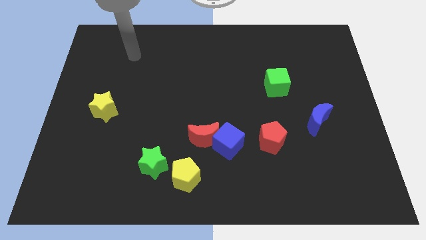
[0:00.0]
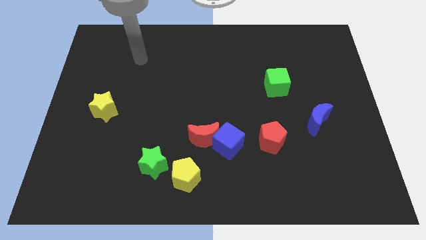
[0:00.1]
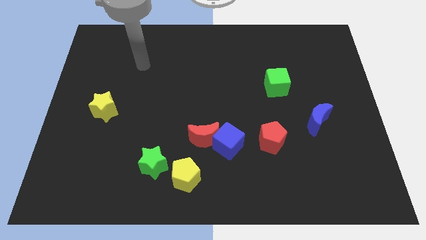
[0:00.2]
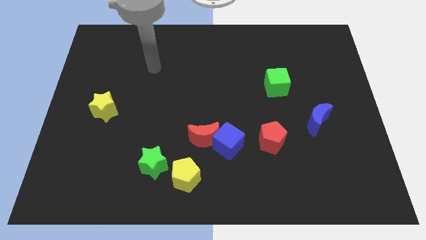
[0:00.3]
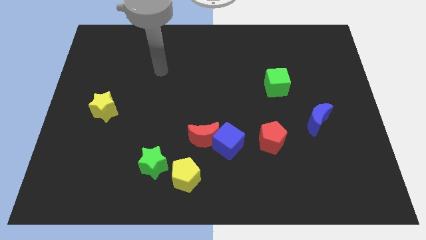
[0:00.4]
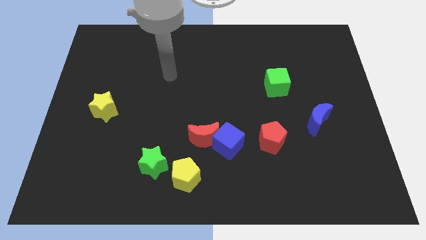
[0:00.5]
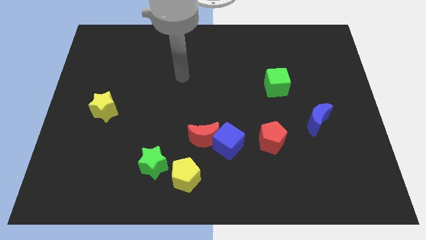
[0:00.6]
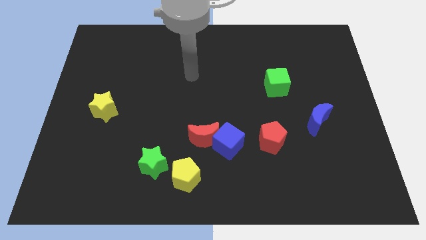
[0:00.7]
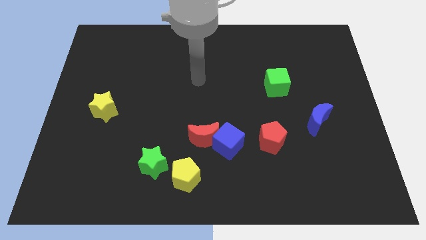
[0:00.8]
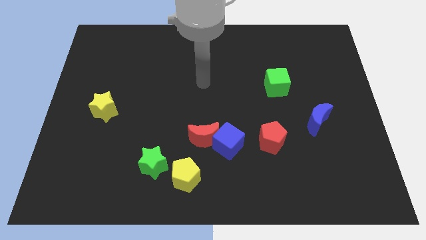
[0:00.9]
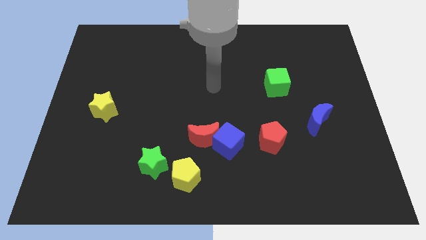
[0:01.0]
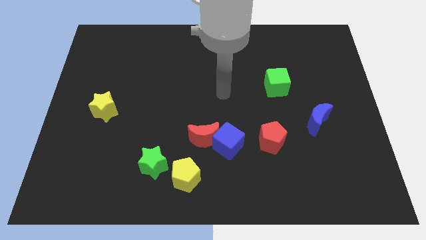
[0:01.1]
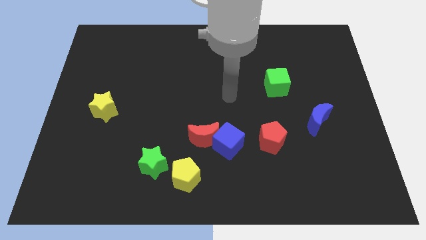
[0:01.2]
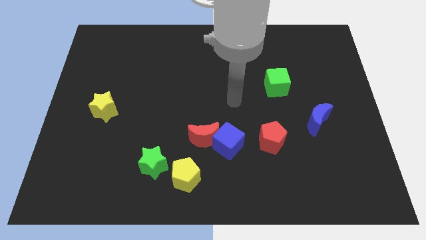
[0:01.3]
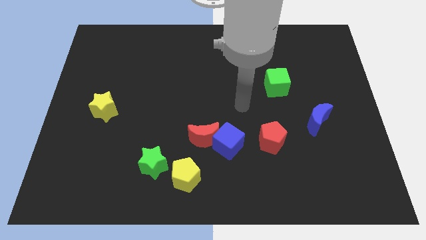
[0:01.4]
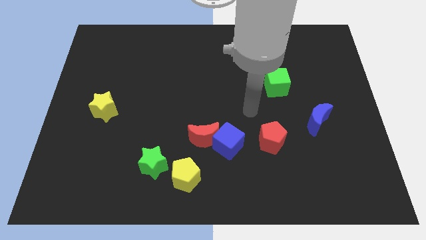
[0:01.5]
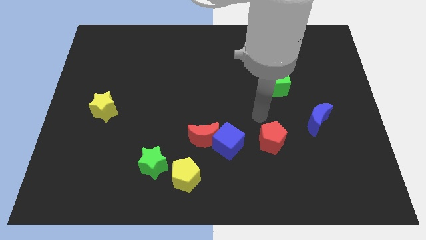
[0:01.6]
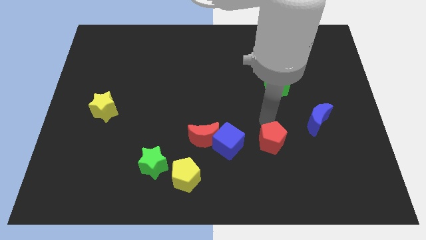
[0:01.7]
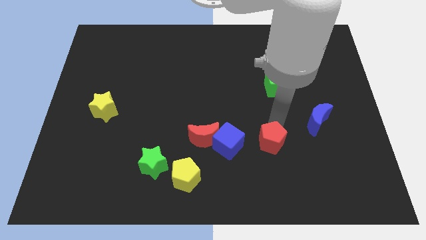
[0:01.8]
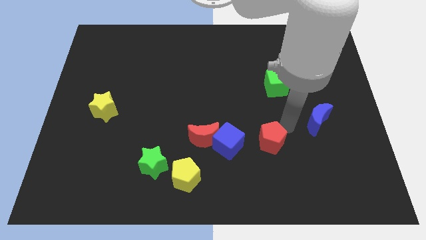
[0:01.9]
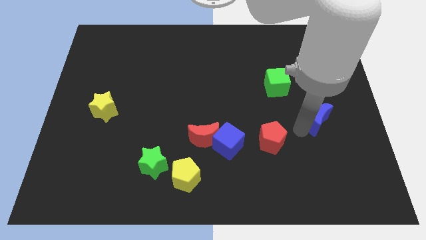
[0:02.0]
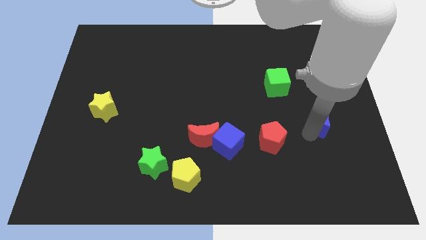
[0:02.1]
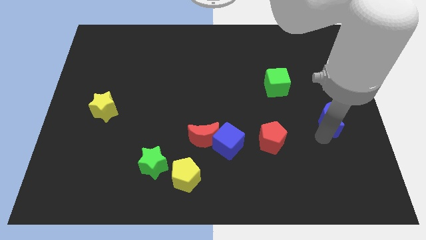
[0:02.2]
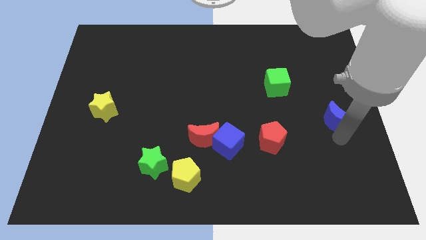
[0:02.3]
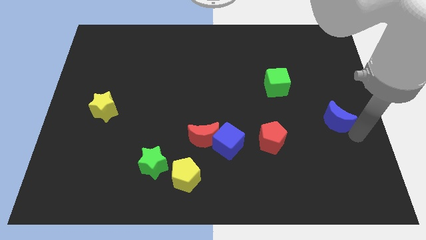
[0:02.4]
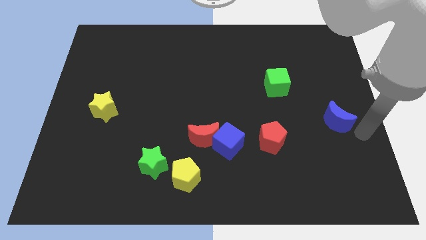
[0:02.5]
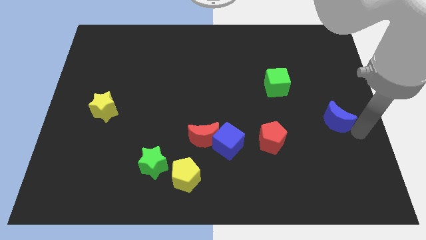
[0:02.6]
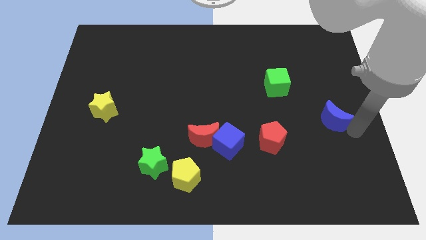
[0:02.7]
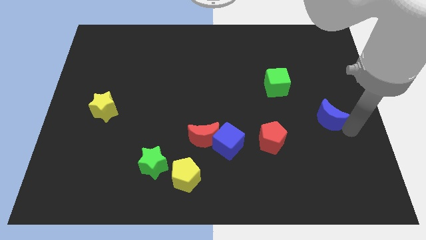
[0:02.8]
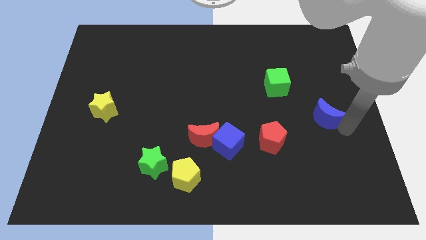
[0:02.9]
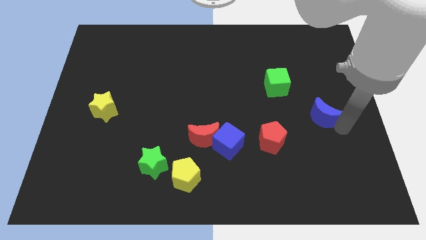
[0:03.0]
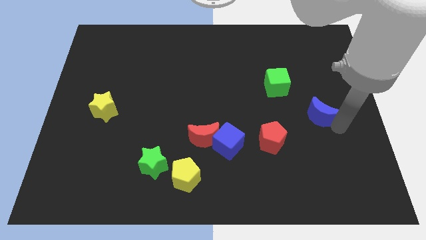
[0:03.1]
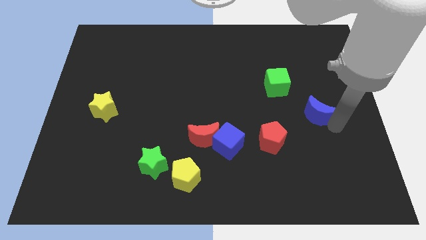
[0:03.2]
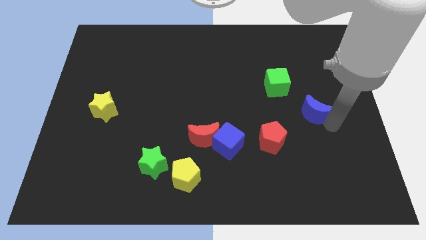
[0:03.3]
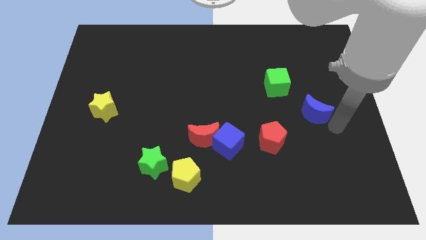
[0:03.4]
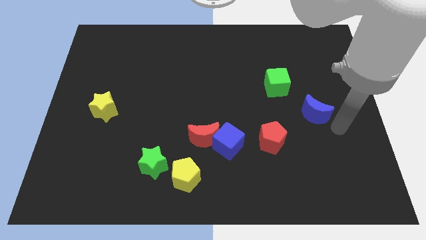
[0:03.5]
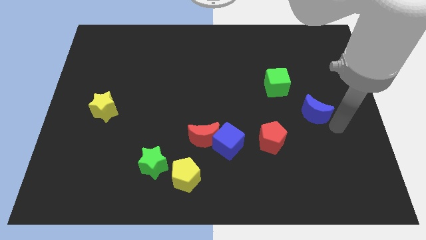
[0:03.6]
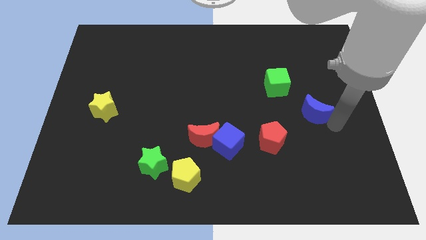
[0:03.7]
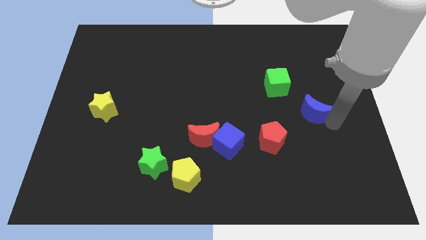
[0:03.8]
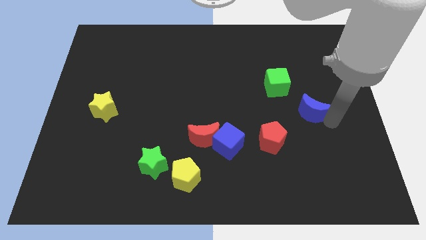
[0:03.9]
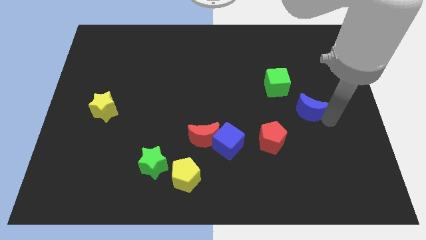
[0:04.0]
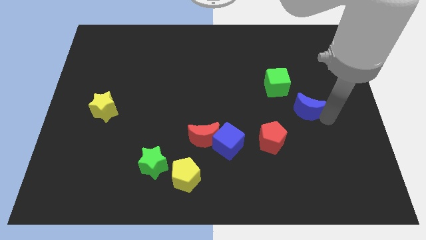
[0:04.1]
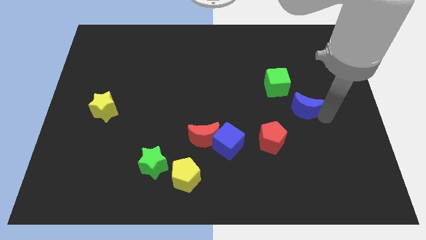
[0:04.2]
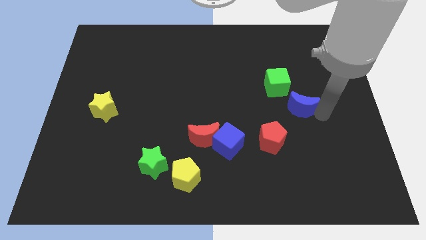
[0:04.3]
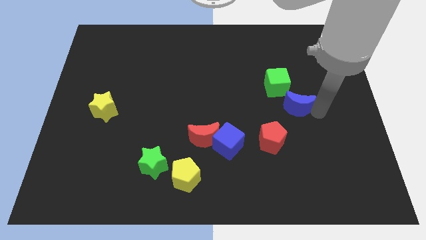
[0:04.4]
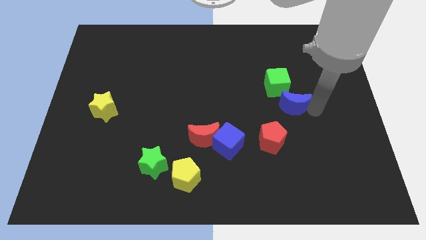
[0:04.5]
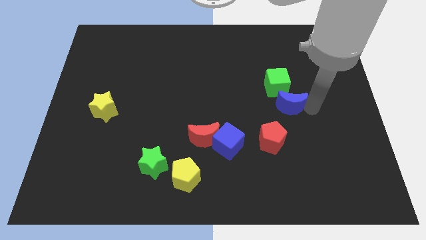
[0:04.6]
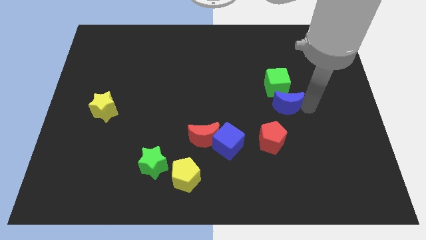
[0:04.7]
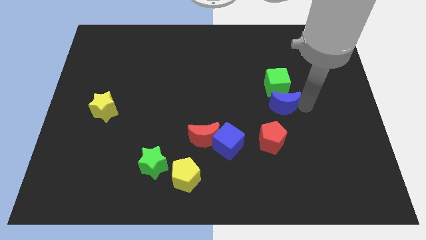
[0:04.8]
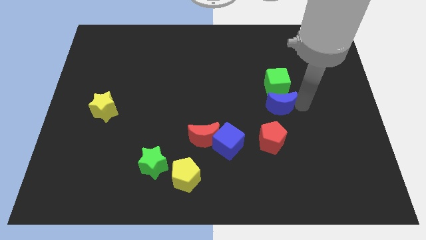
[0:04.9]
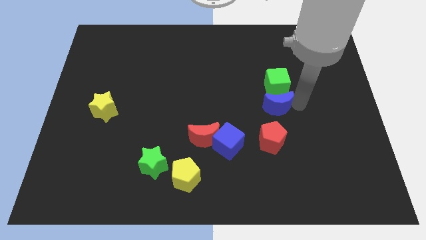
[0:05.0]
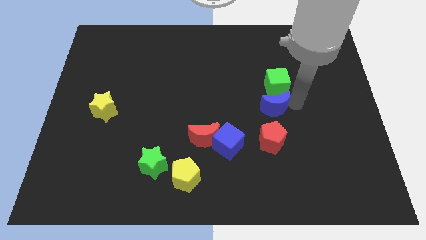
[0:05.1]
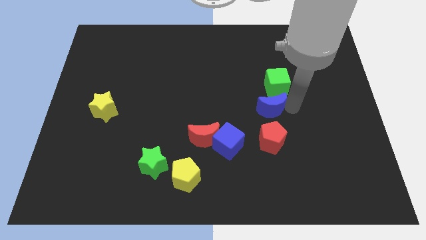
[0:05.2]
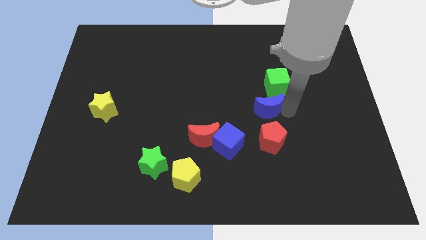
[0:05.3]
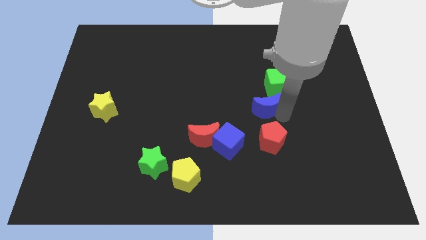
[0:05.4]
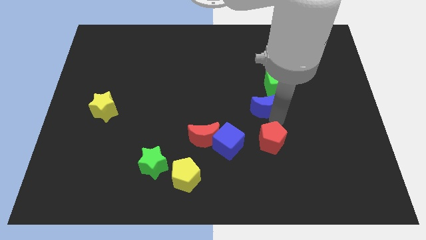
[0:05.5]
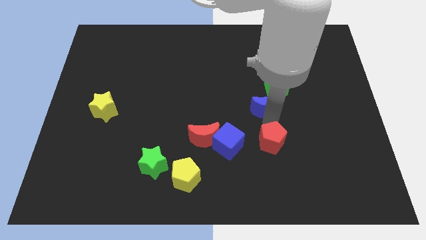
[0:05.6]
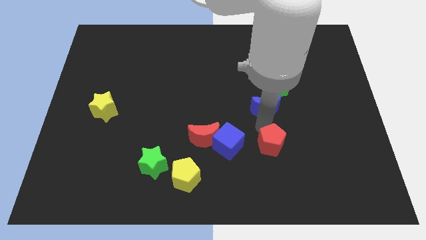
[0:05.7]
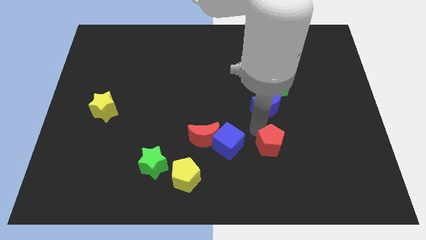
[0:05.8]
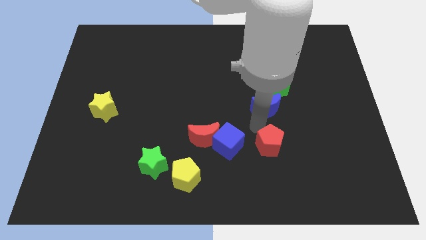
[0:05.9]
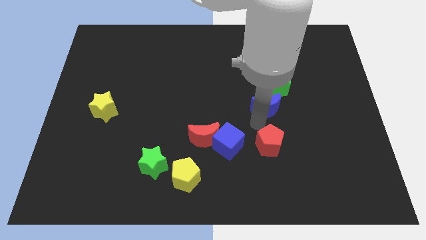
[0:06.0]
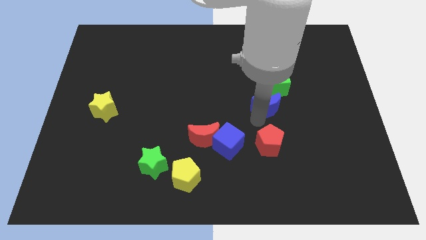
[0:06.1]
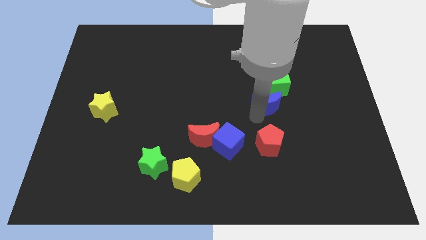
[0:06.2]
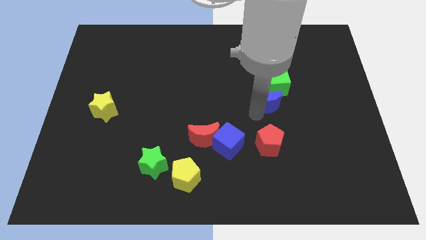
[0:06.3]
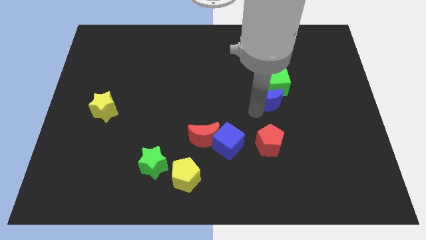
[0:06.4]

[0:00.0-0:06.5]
push the blue moon close to the green cube

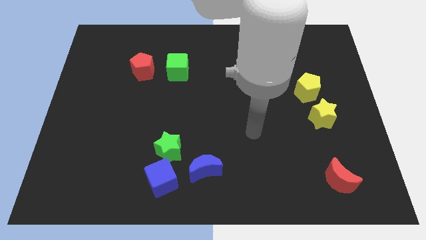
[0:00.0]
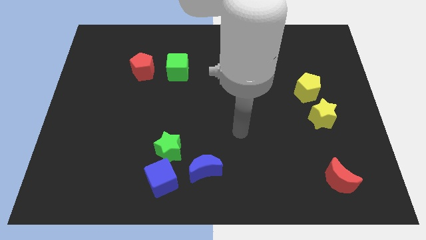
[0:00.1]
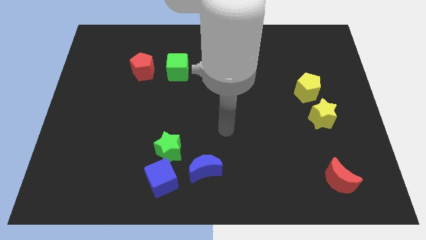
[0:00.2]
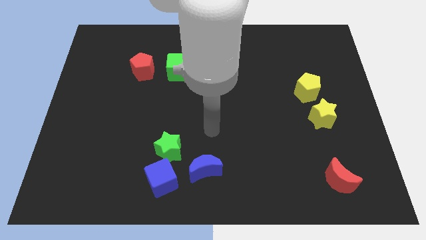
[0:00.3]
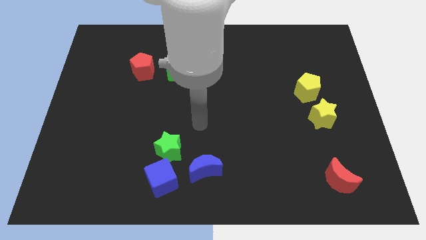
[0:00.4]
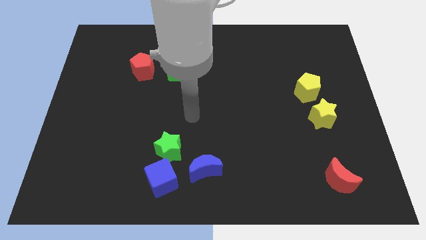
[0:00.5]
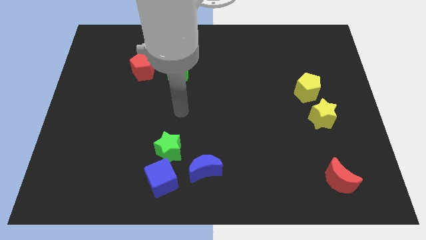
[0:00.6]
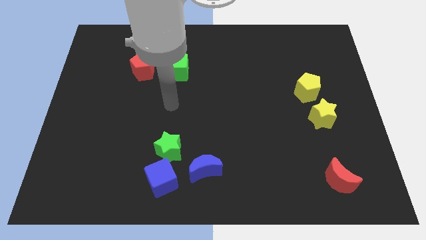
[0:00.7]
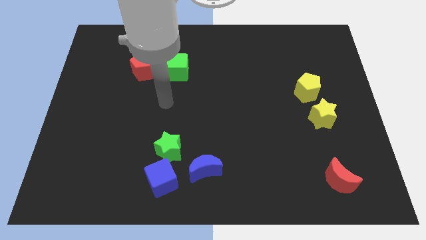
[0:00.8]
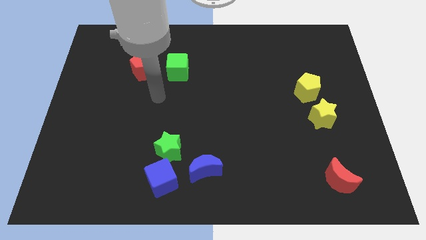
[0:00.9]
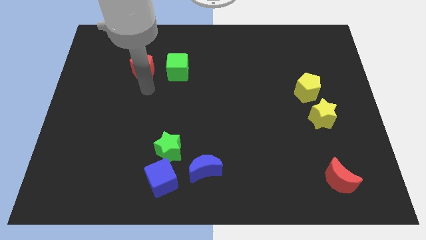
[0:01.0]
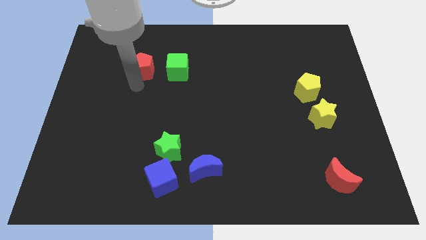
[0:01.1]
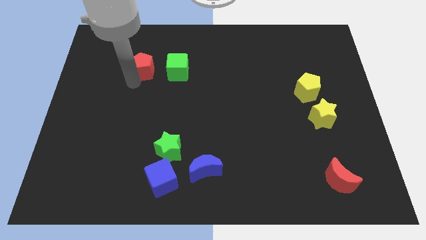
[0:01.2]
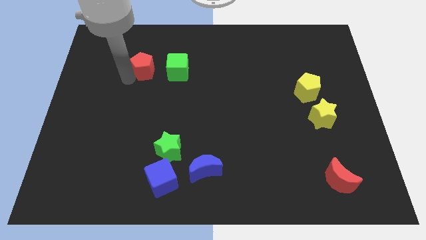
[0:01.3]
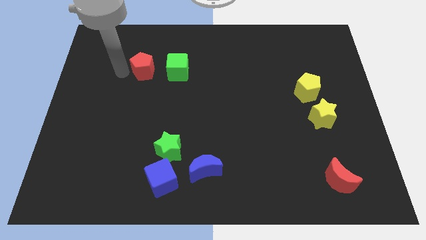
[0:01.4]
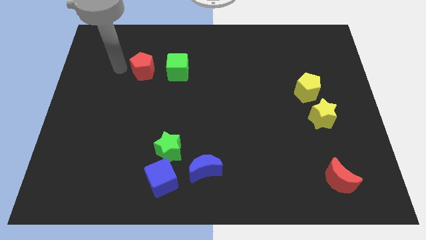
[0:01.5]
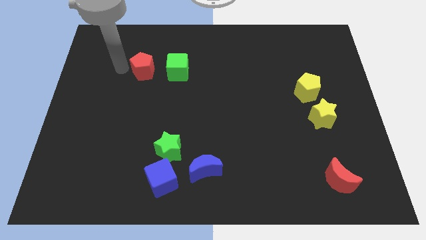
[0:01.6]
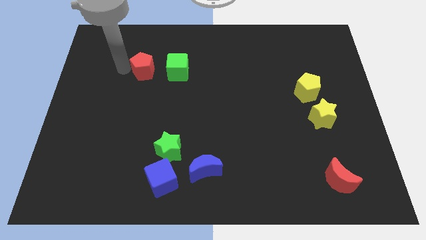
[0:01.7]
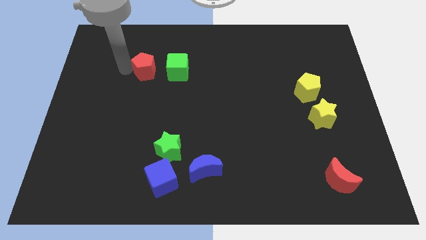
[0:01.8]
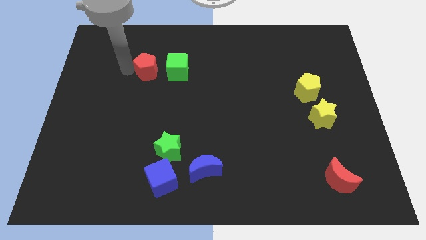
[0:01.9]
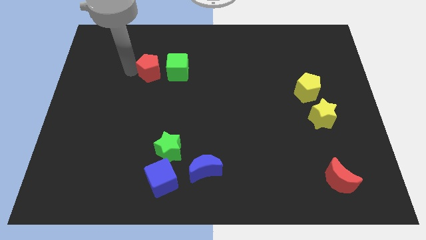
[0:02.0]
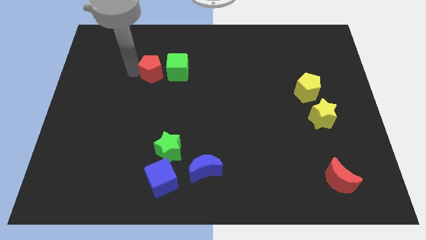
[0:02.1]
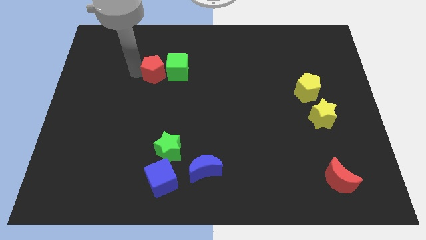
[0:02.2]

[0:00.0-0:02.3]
push the red pentagon to the green cube
